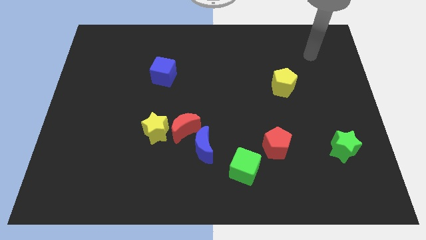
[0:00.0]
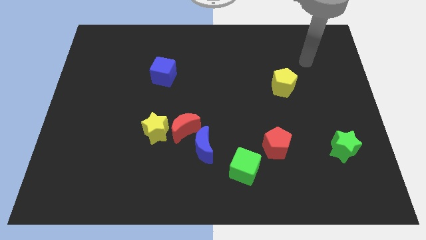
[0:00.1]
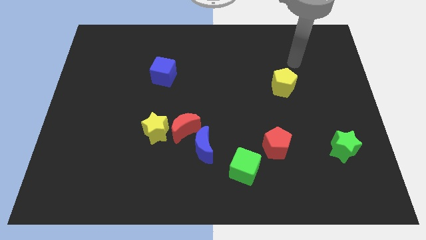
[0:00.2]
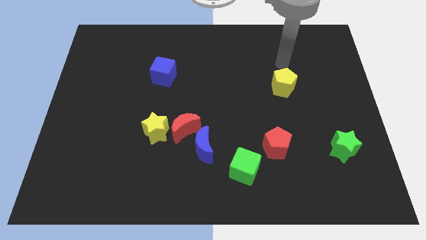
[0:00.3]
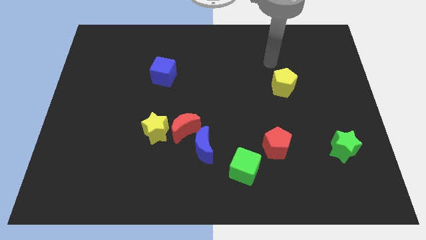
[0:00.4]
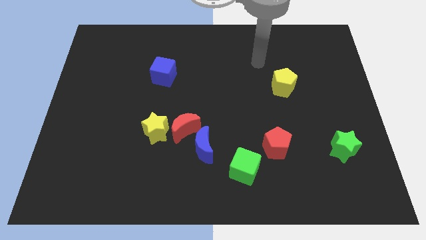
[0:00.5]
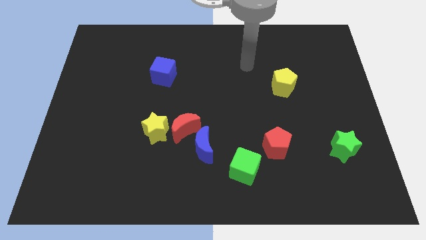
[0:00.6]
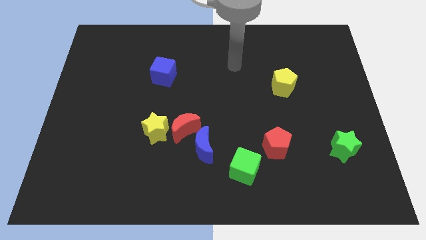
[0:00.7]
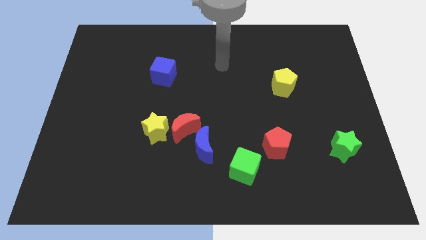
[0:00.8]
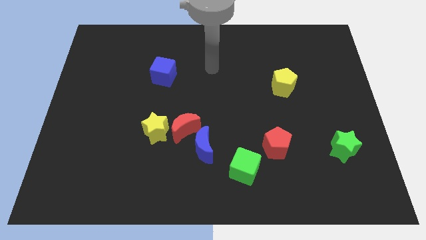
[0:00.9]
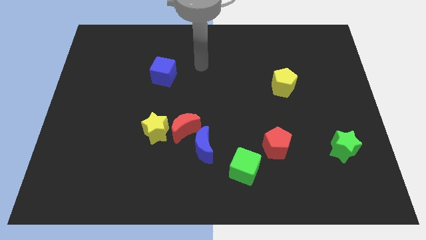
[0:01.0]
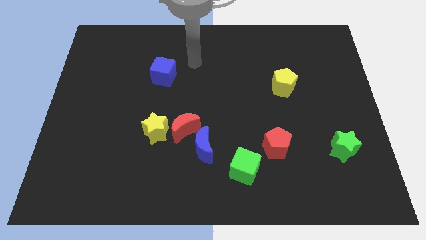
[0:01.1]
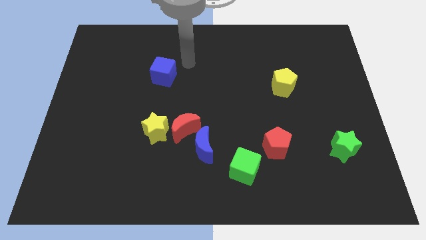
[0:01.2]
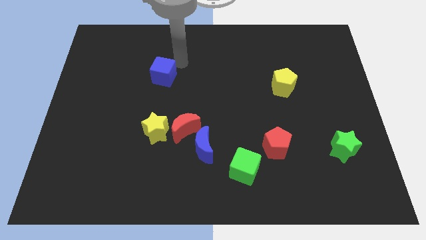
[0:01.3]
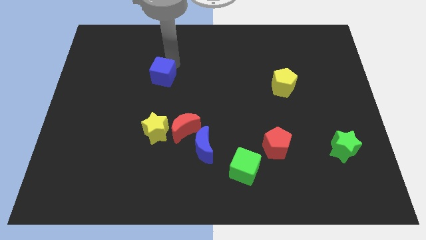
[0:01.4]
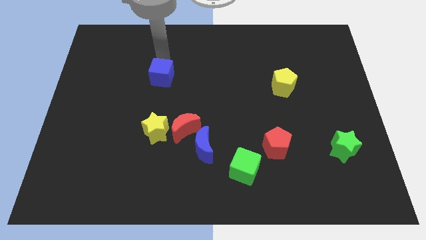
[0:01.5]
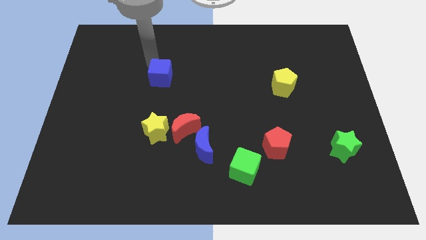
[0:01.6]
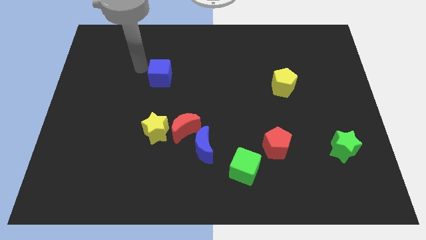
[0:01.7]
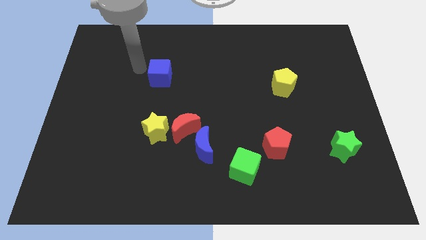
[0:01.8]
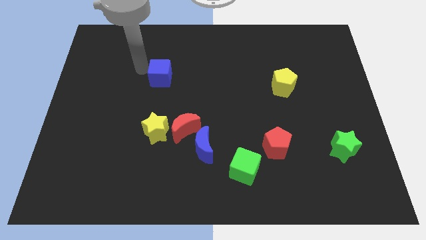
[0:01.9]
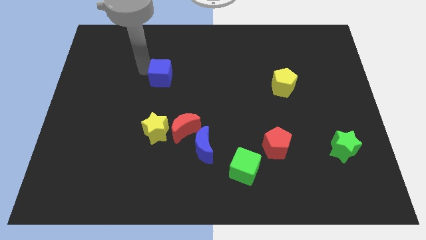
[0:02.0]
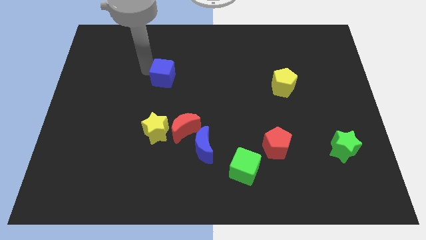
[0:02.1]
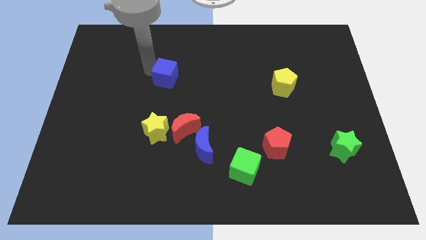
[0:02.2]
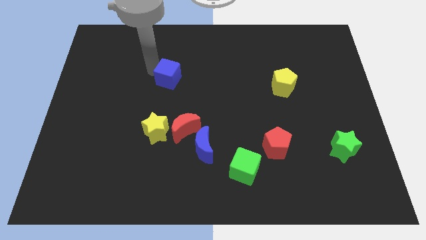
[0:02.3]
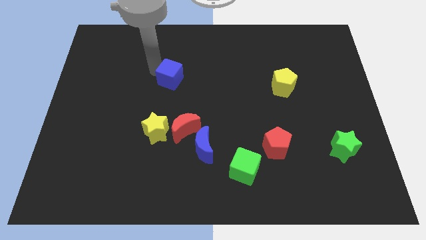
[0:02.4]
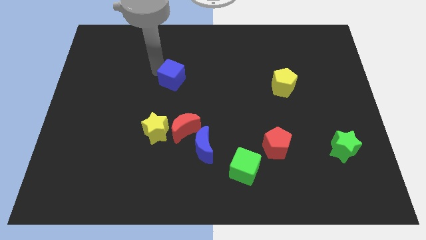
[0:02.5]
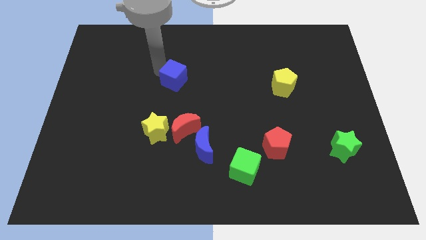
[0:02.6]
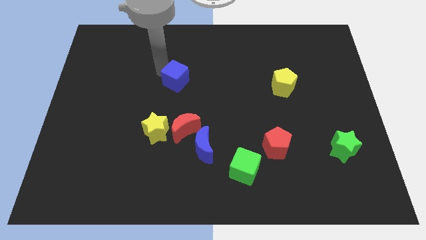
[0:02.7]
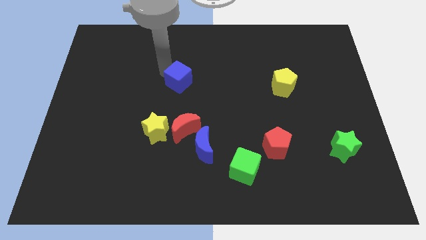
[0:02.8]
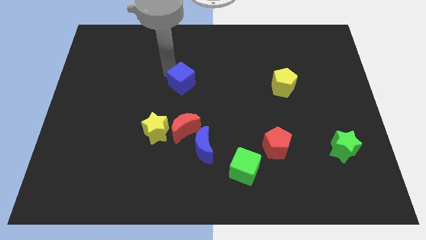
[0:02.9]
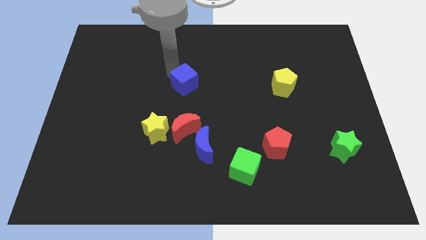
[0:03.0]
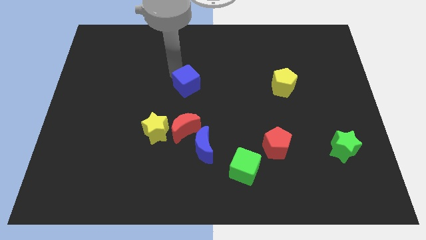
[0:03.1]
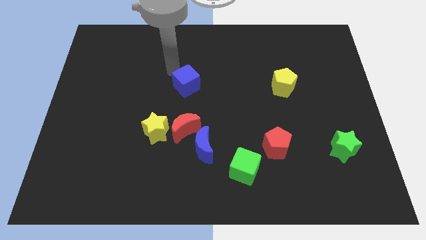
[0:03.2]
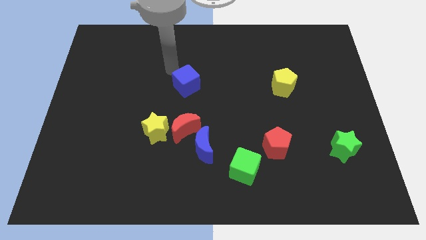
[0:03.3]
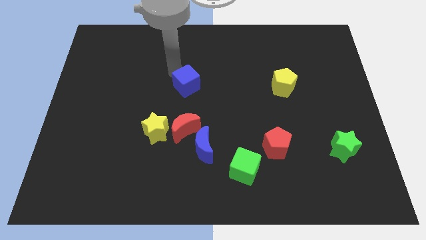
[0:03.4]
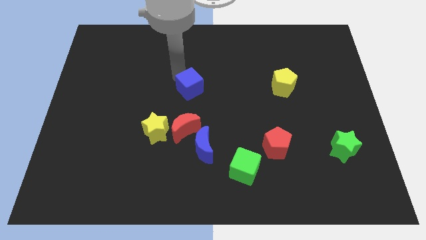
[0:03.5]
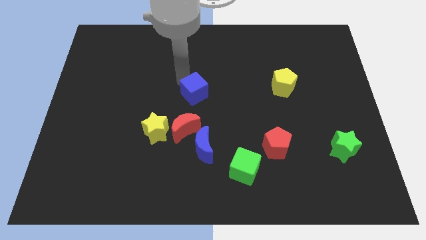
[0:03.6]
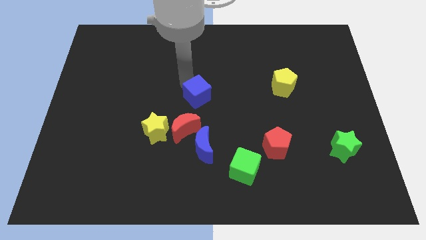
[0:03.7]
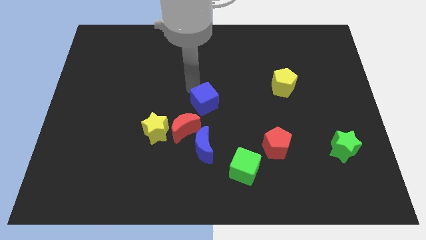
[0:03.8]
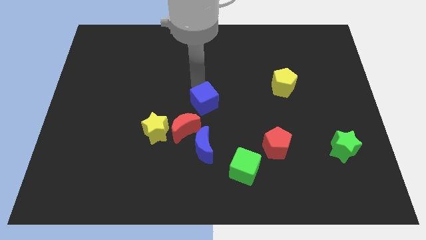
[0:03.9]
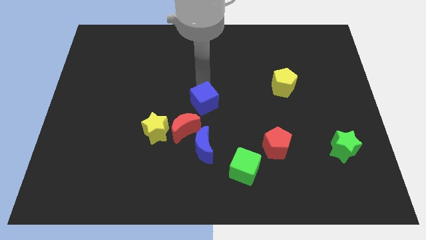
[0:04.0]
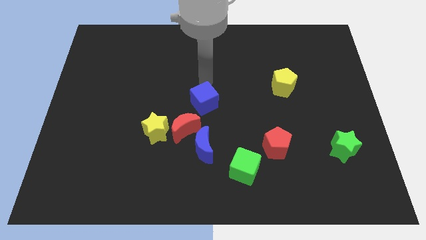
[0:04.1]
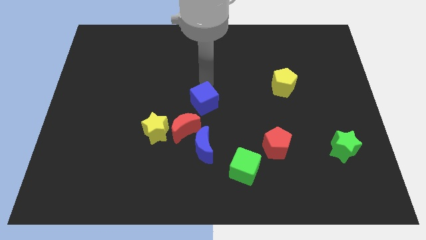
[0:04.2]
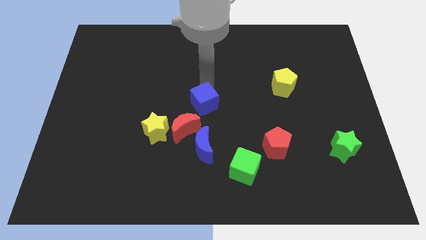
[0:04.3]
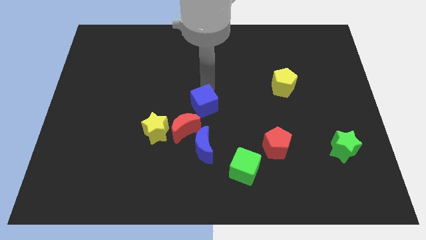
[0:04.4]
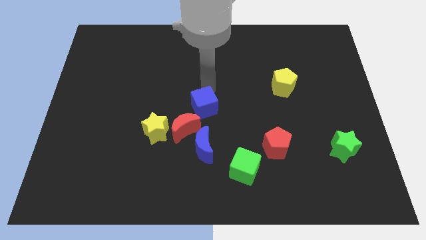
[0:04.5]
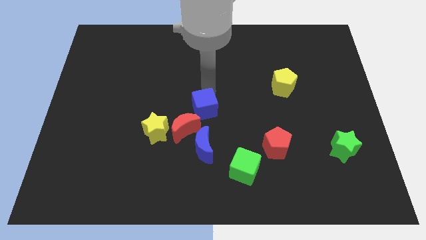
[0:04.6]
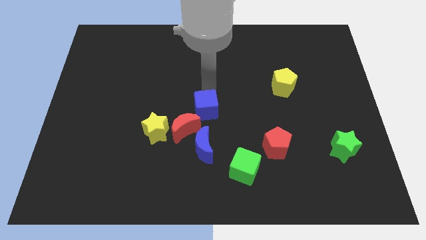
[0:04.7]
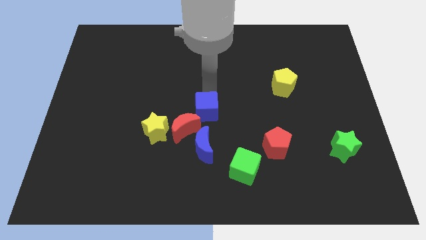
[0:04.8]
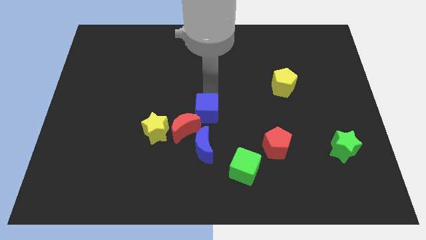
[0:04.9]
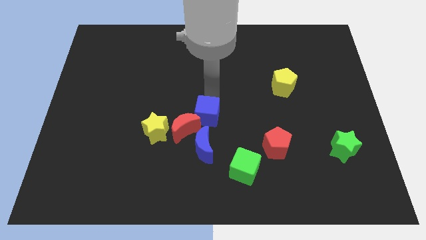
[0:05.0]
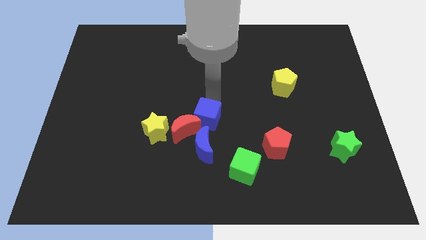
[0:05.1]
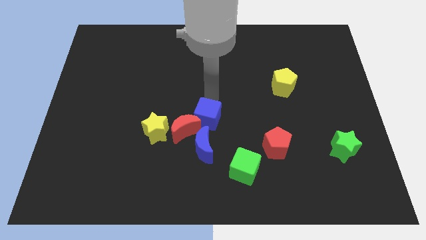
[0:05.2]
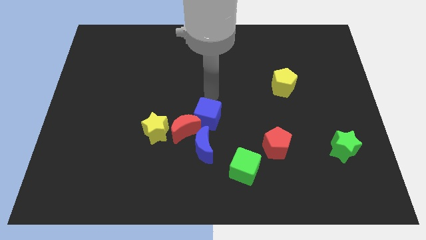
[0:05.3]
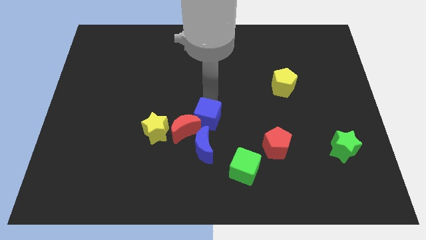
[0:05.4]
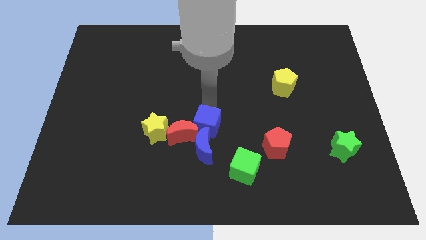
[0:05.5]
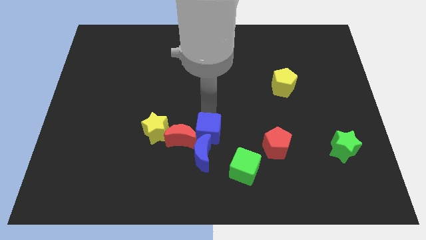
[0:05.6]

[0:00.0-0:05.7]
push the blue cube next to the blue moon

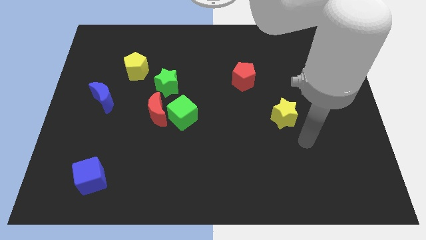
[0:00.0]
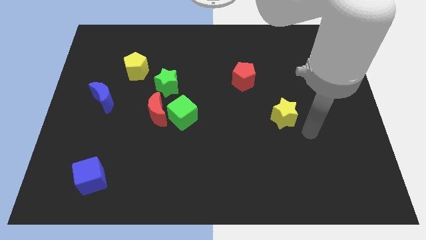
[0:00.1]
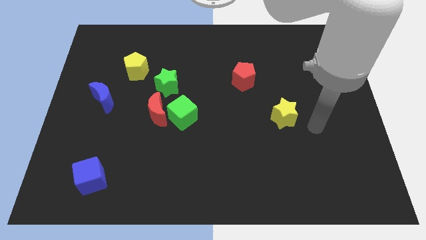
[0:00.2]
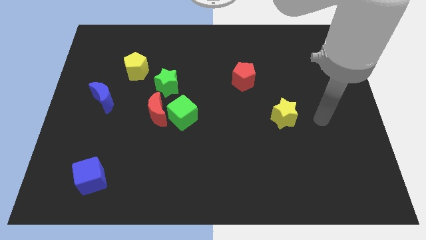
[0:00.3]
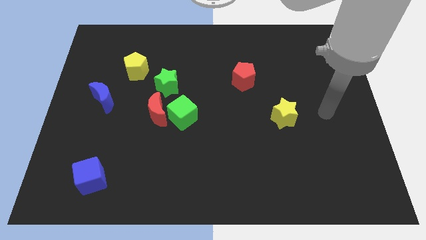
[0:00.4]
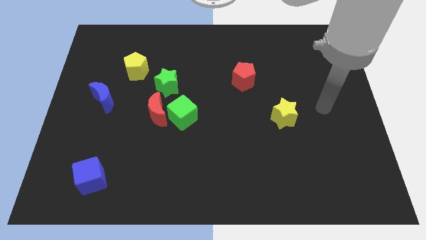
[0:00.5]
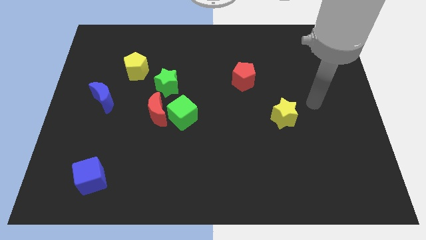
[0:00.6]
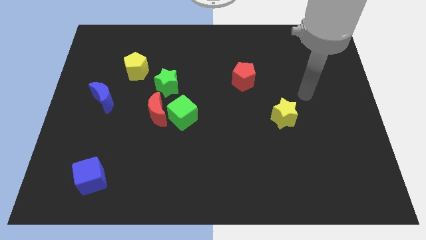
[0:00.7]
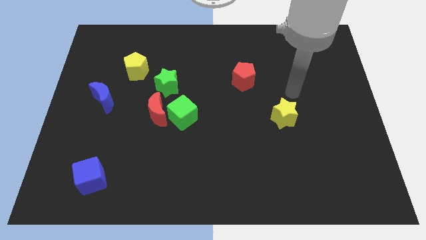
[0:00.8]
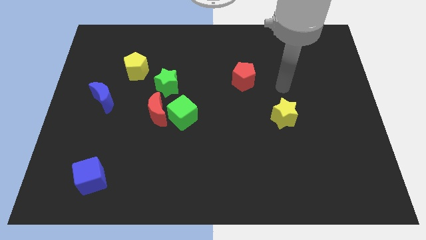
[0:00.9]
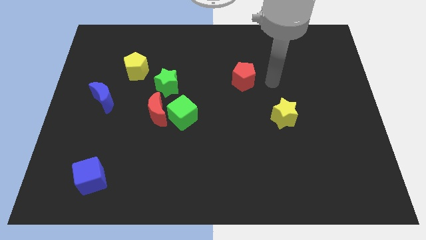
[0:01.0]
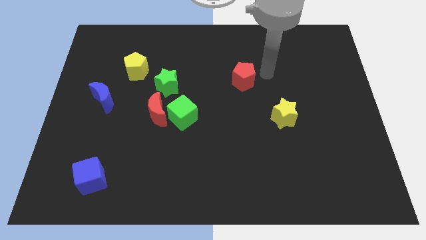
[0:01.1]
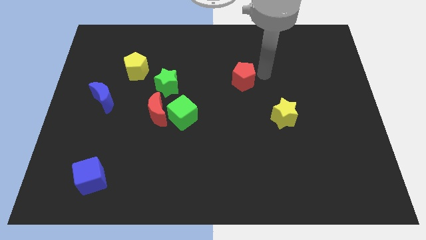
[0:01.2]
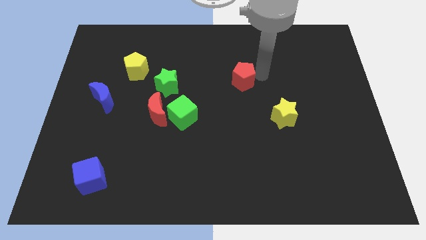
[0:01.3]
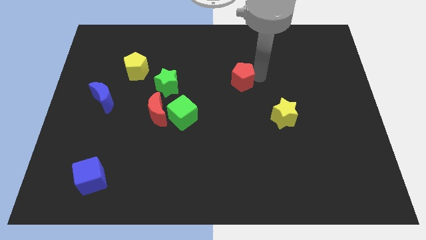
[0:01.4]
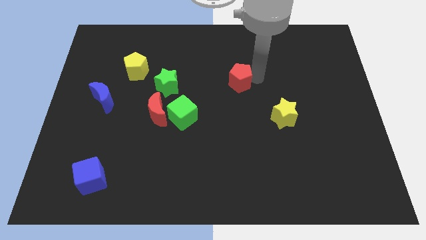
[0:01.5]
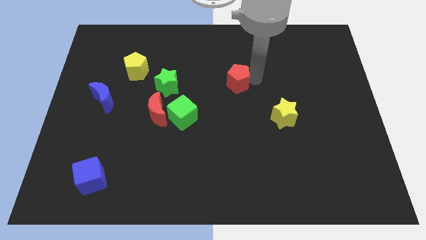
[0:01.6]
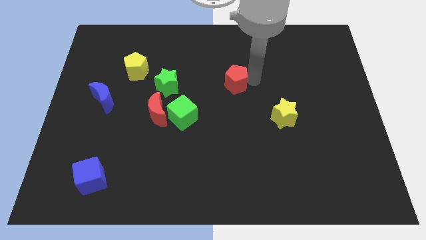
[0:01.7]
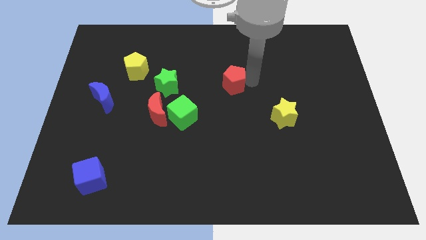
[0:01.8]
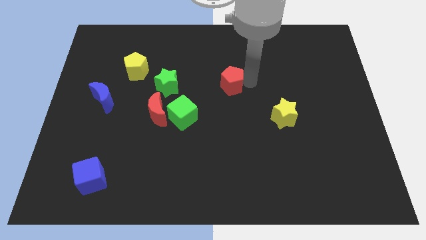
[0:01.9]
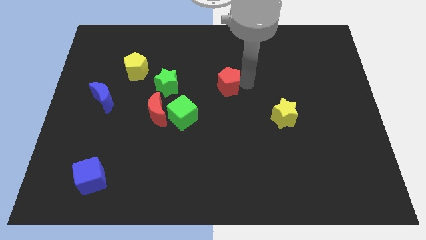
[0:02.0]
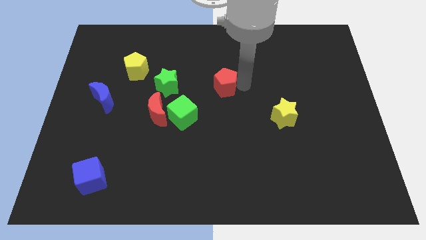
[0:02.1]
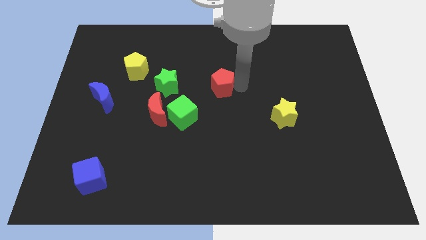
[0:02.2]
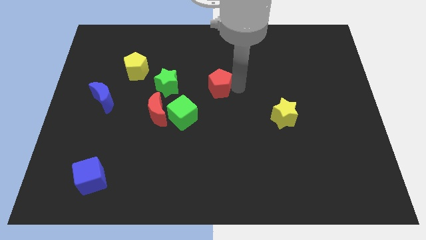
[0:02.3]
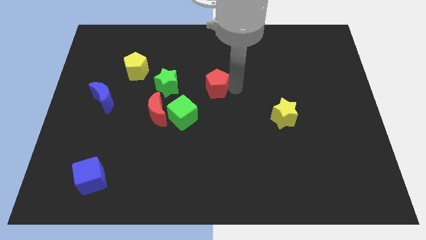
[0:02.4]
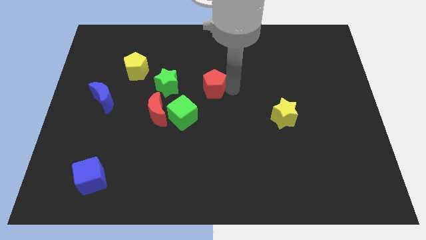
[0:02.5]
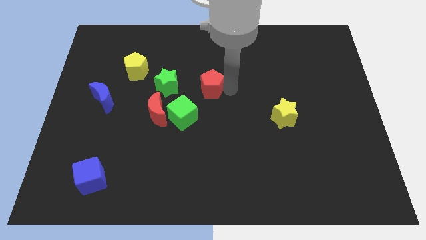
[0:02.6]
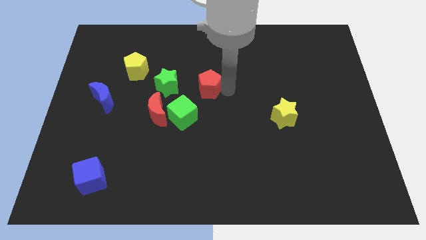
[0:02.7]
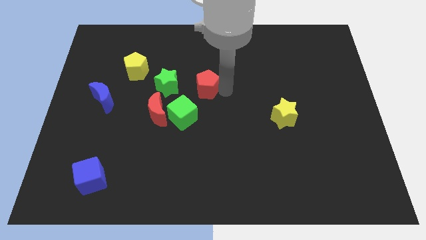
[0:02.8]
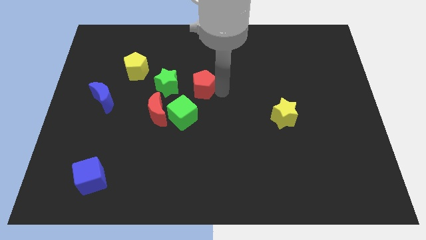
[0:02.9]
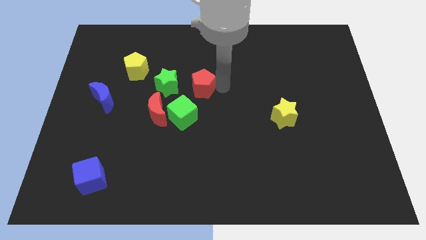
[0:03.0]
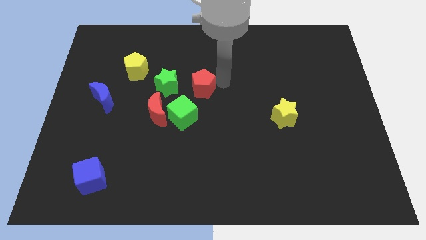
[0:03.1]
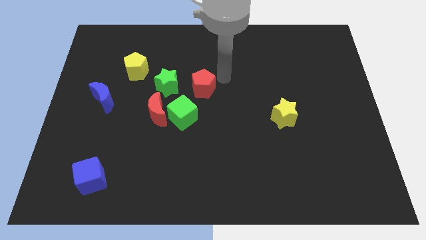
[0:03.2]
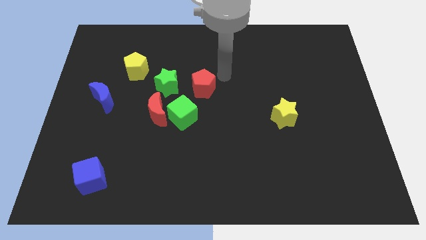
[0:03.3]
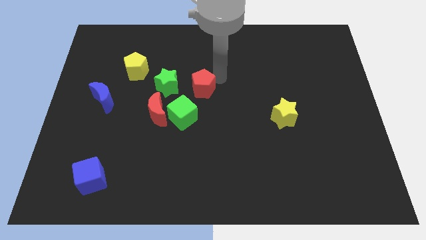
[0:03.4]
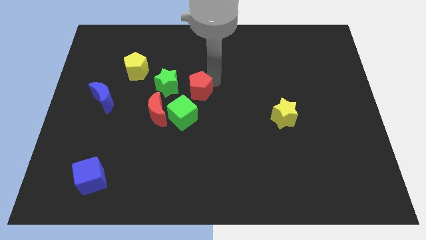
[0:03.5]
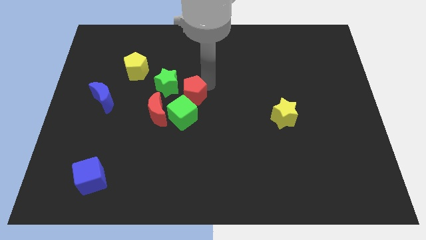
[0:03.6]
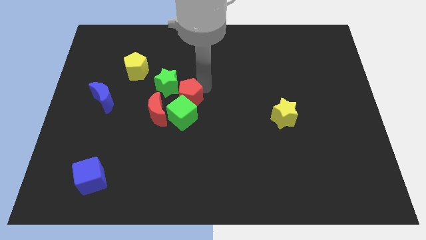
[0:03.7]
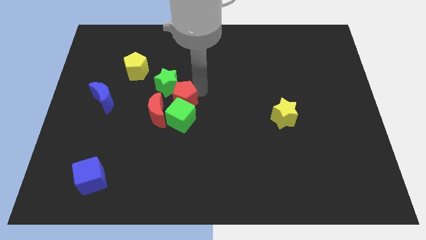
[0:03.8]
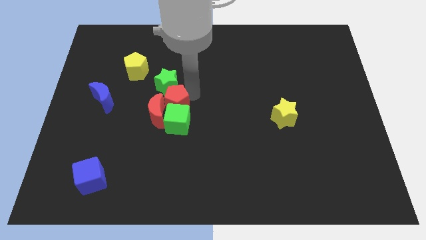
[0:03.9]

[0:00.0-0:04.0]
move the red pentagon next to the red moon
